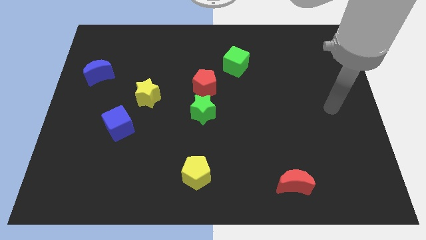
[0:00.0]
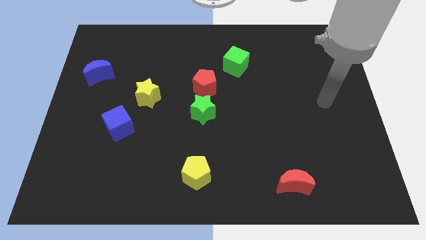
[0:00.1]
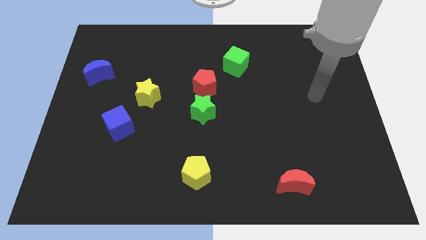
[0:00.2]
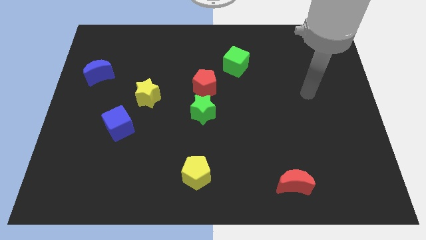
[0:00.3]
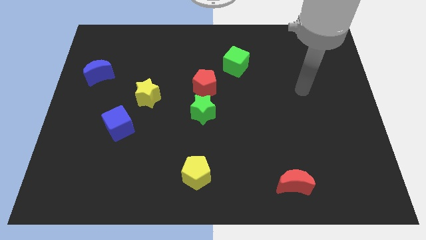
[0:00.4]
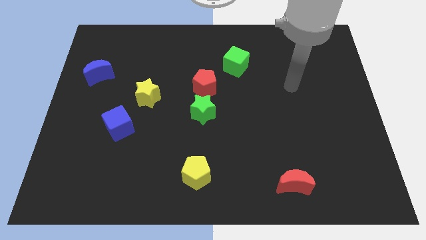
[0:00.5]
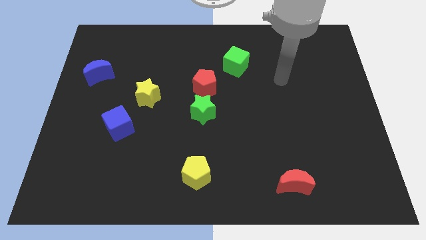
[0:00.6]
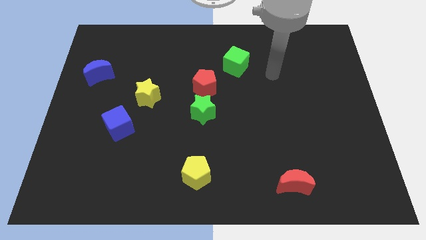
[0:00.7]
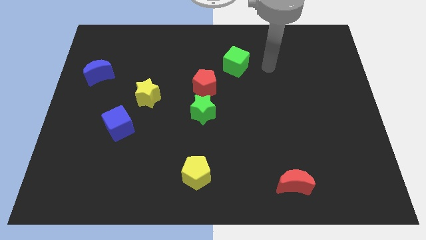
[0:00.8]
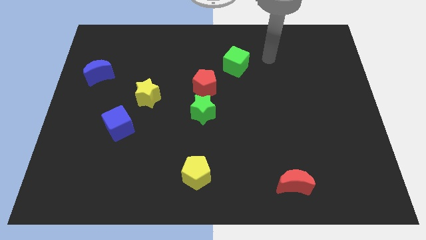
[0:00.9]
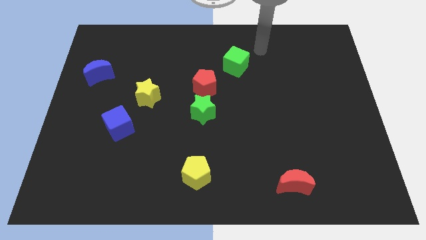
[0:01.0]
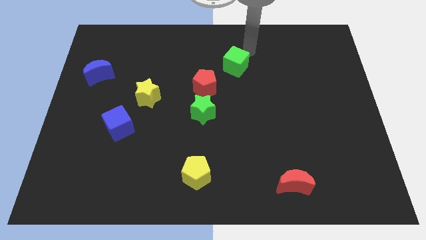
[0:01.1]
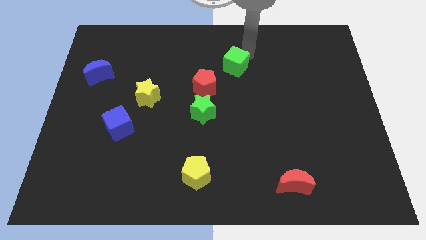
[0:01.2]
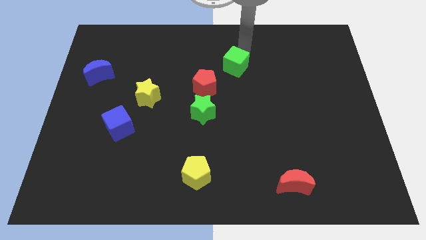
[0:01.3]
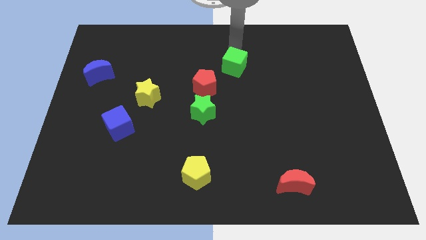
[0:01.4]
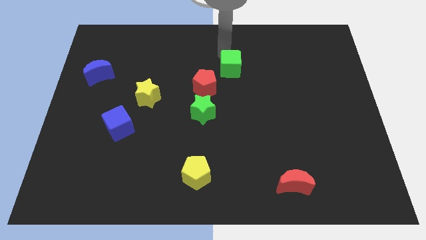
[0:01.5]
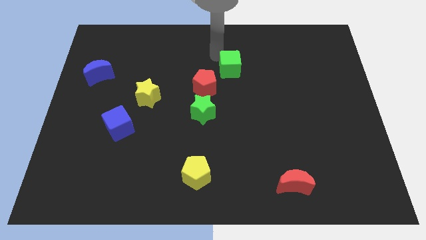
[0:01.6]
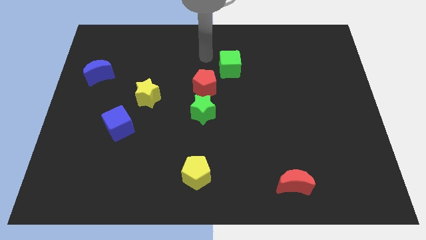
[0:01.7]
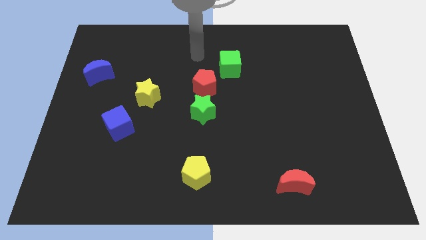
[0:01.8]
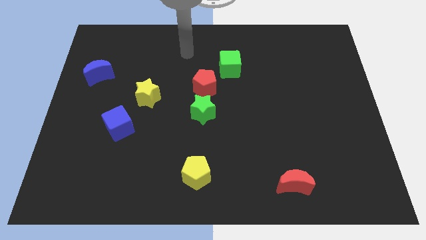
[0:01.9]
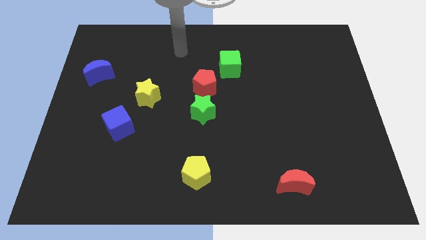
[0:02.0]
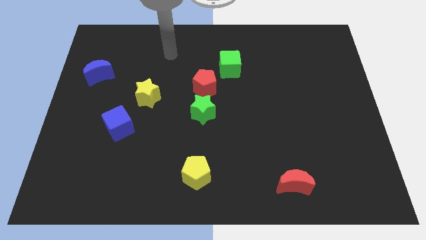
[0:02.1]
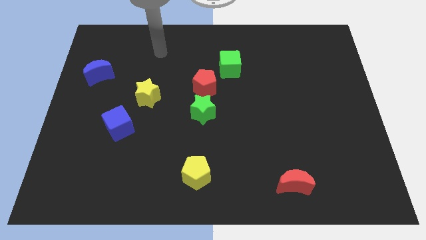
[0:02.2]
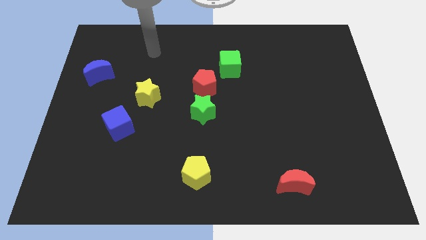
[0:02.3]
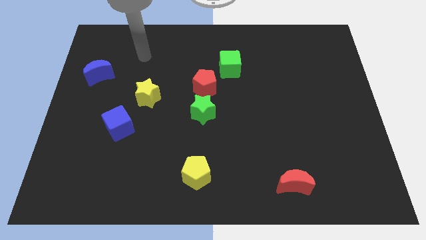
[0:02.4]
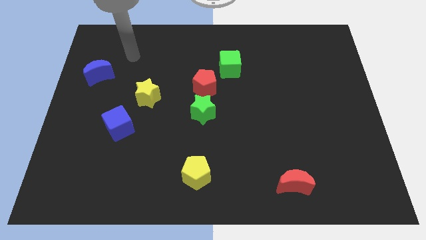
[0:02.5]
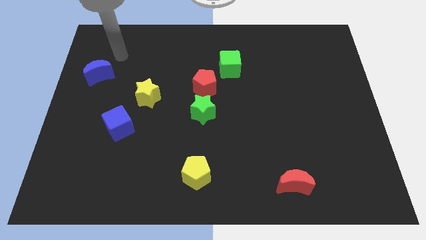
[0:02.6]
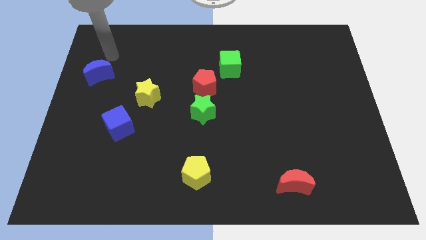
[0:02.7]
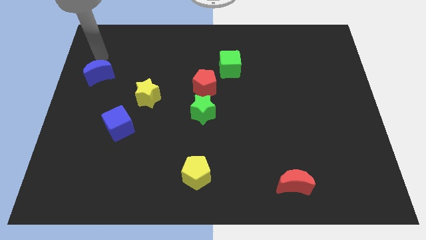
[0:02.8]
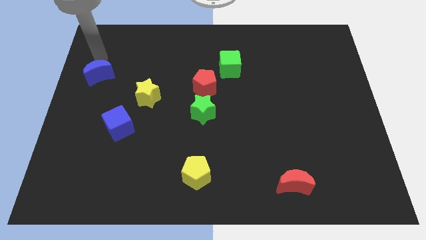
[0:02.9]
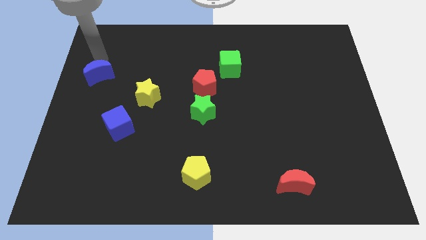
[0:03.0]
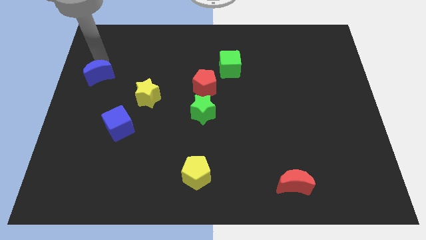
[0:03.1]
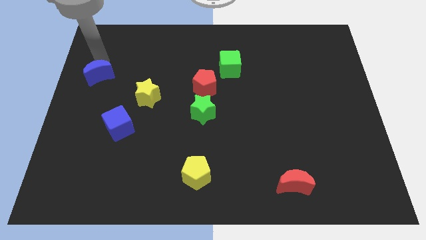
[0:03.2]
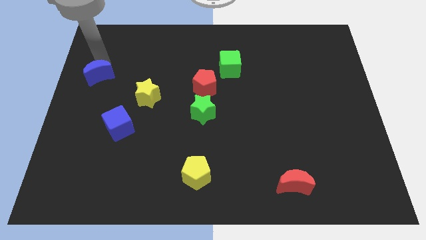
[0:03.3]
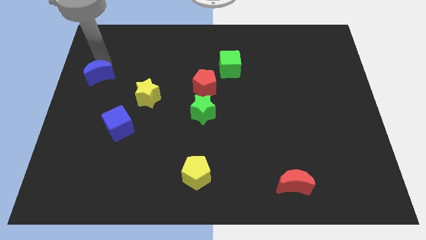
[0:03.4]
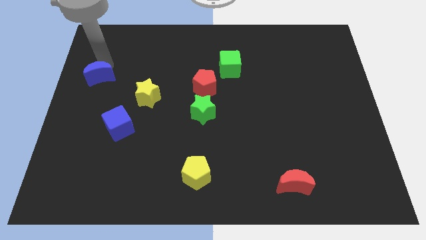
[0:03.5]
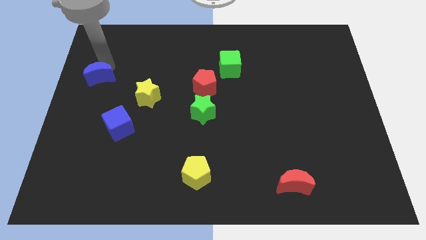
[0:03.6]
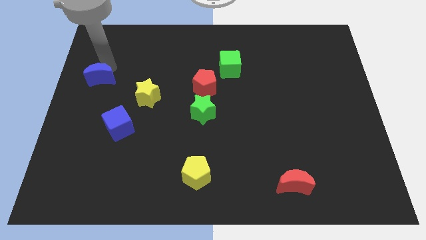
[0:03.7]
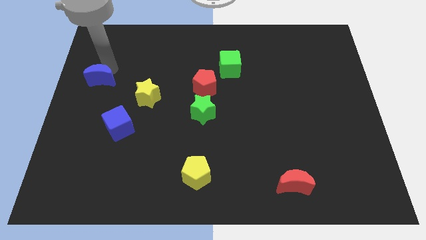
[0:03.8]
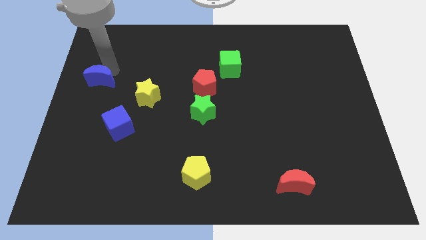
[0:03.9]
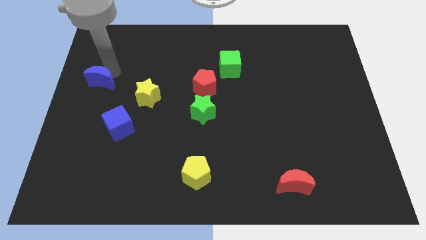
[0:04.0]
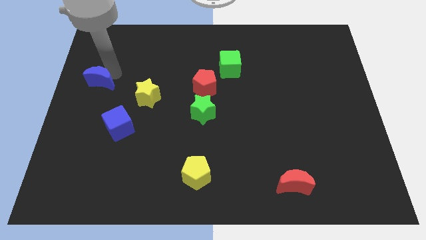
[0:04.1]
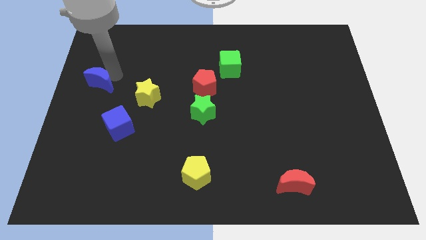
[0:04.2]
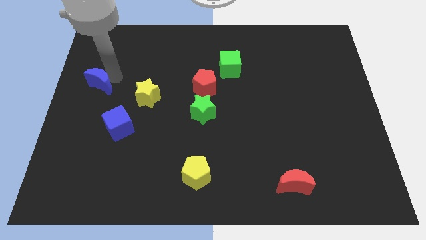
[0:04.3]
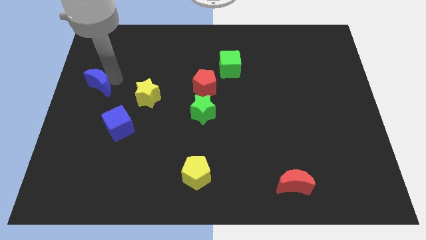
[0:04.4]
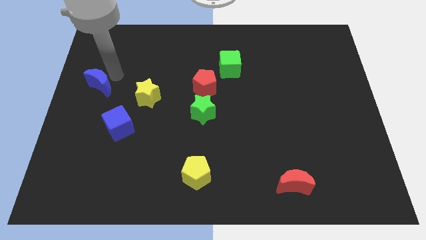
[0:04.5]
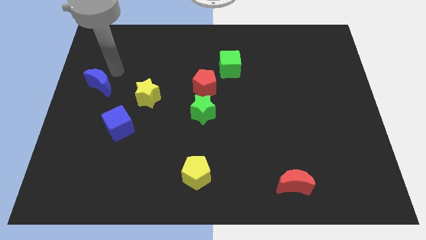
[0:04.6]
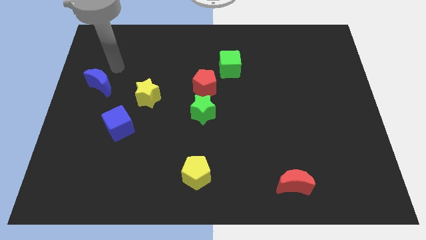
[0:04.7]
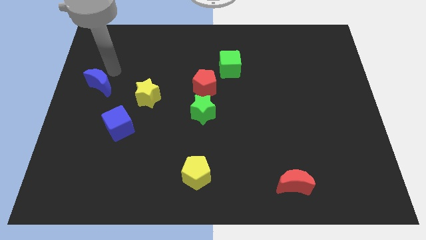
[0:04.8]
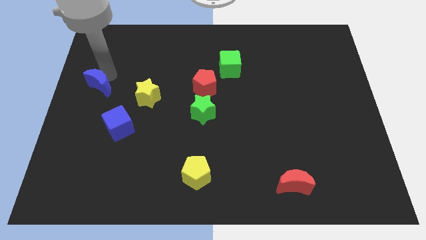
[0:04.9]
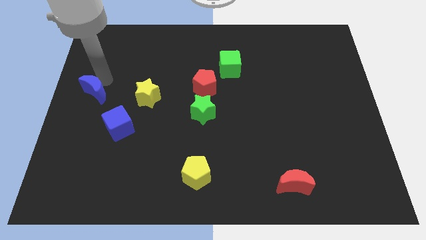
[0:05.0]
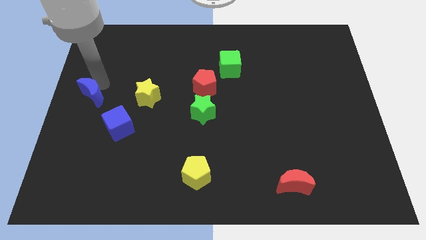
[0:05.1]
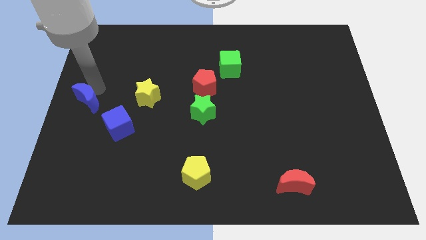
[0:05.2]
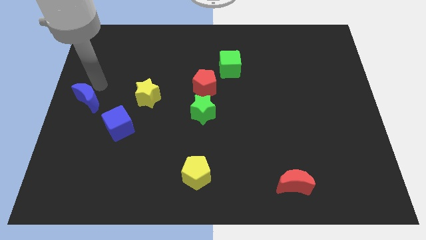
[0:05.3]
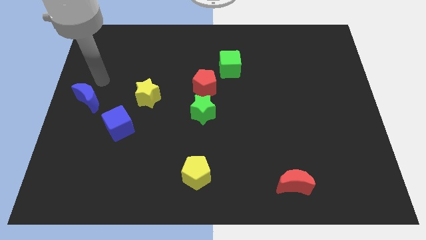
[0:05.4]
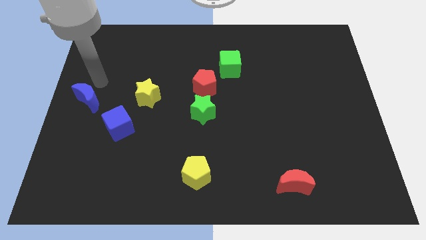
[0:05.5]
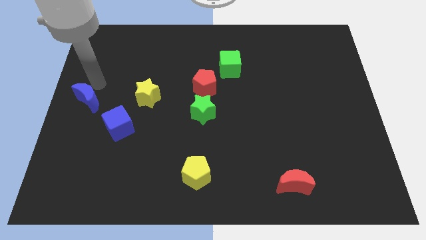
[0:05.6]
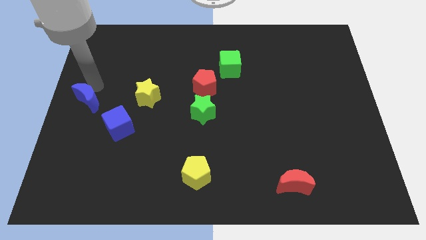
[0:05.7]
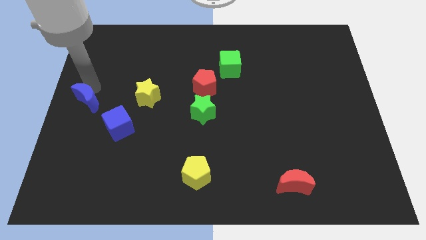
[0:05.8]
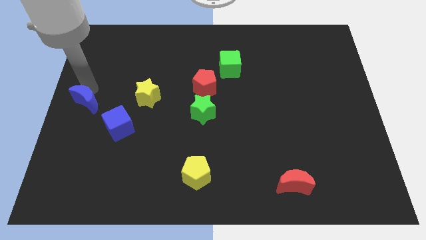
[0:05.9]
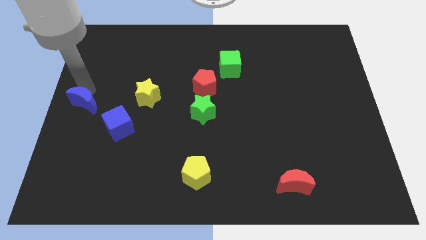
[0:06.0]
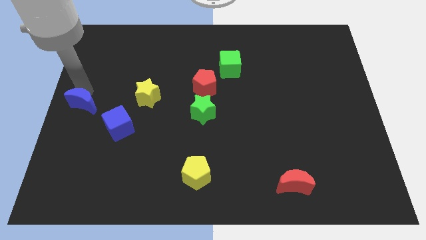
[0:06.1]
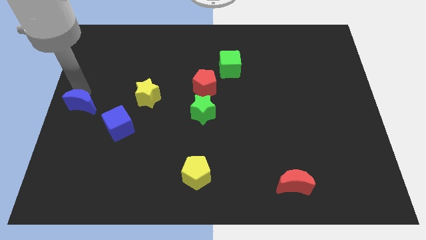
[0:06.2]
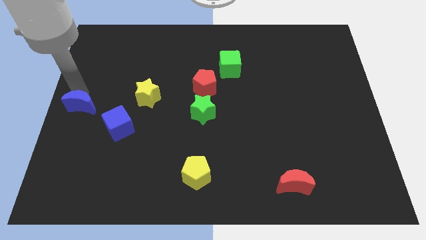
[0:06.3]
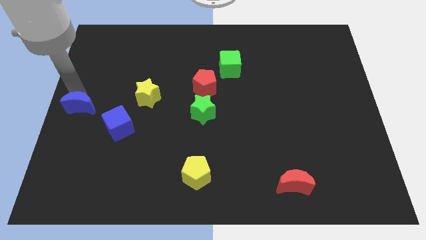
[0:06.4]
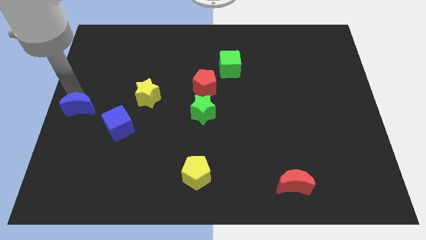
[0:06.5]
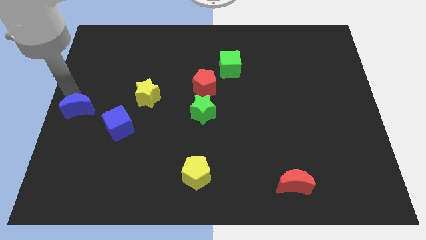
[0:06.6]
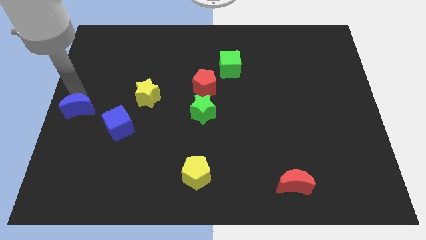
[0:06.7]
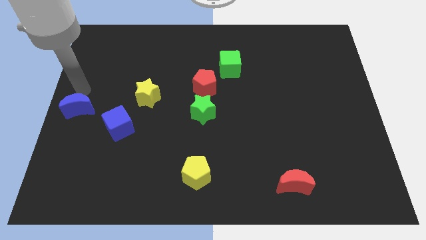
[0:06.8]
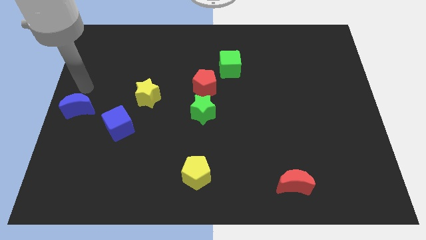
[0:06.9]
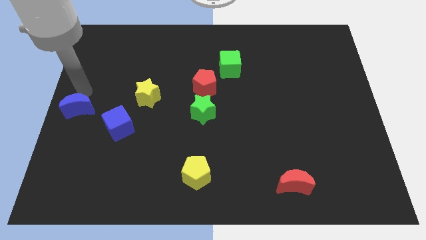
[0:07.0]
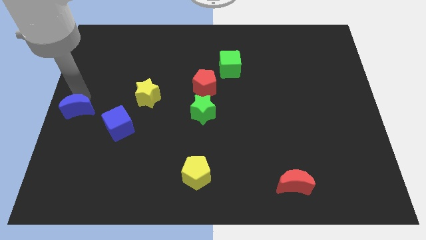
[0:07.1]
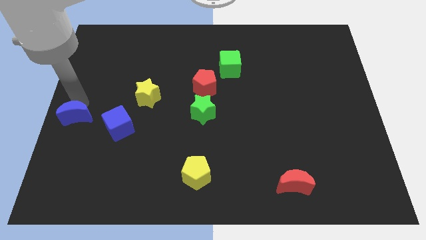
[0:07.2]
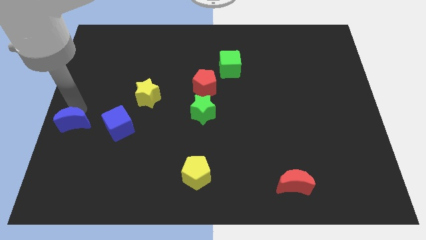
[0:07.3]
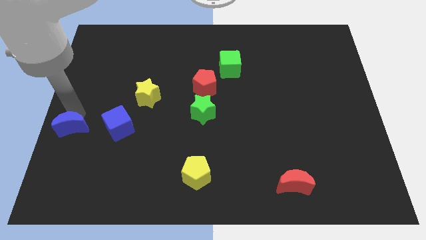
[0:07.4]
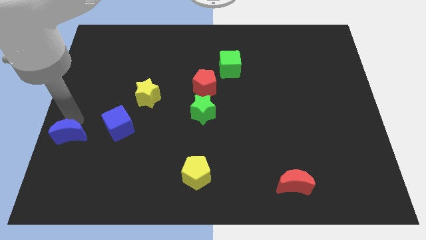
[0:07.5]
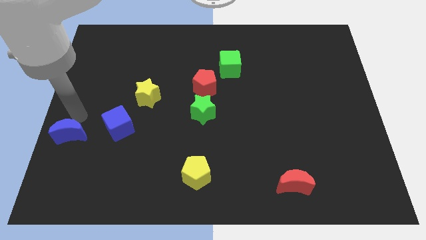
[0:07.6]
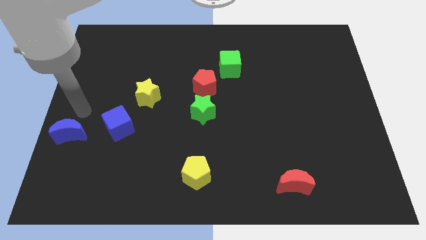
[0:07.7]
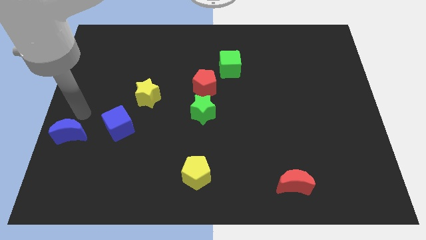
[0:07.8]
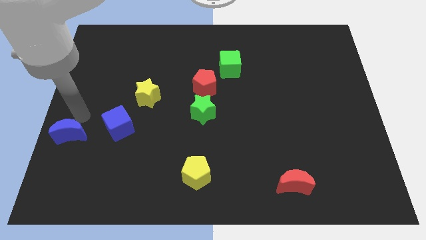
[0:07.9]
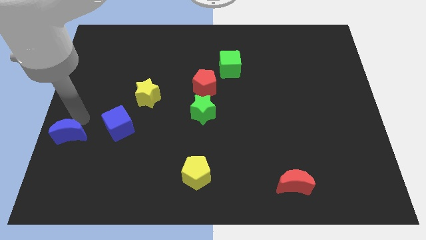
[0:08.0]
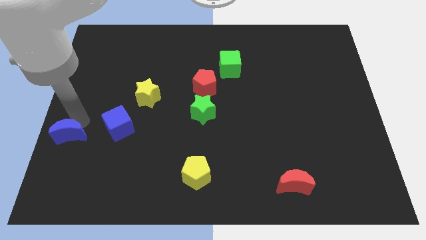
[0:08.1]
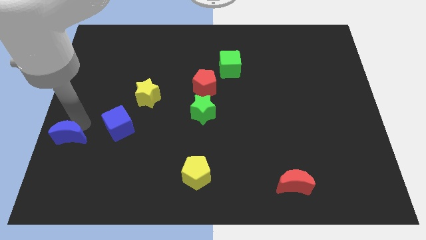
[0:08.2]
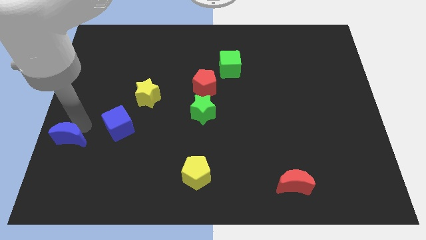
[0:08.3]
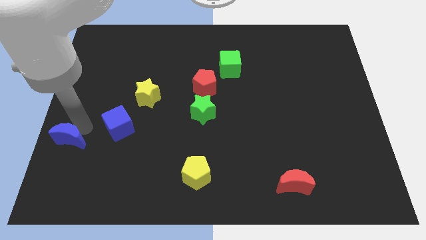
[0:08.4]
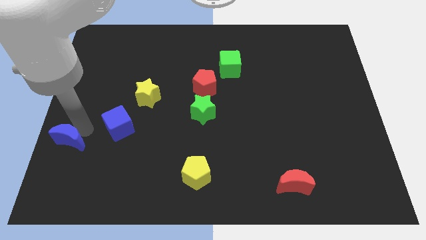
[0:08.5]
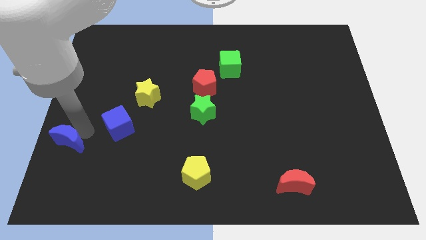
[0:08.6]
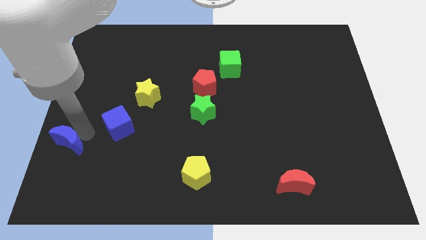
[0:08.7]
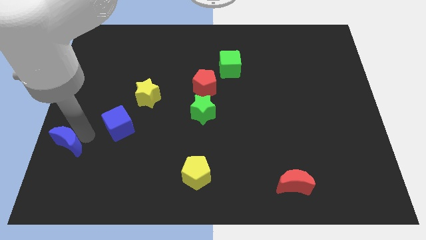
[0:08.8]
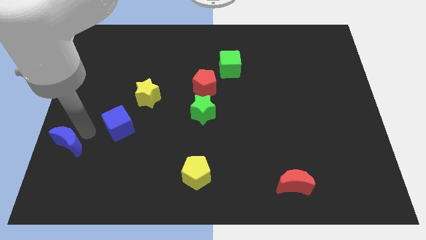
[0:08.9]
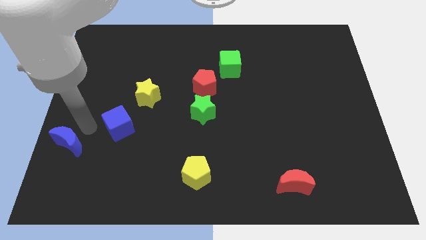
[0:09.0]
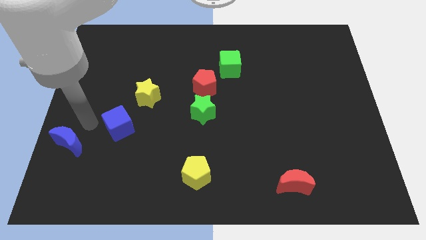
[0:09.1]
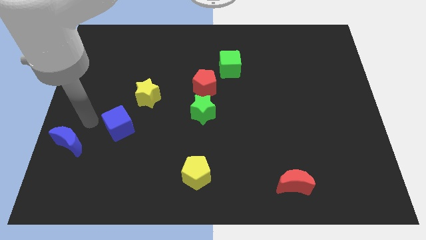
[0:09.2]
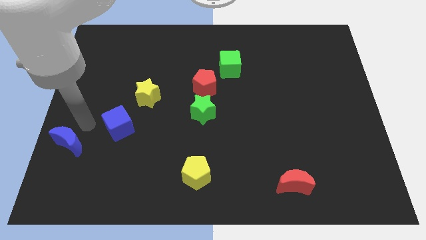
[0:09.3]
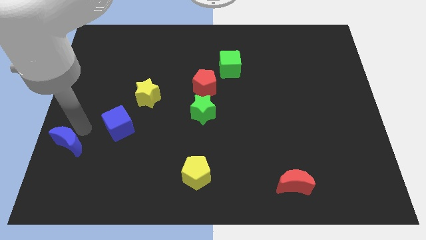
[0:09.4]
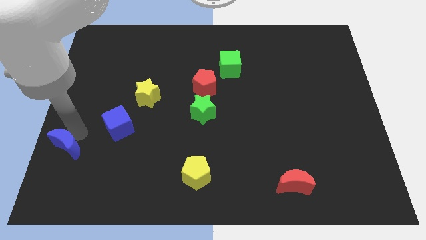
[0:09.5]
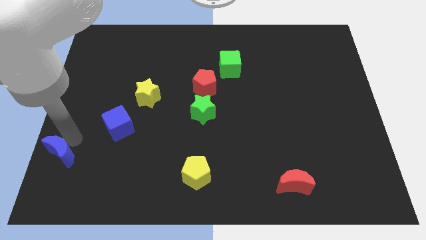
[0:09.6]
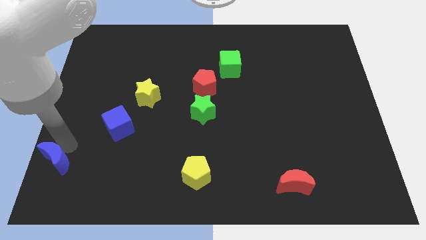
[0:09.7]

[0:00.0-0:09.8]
slide the blue moon to the lower left corner
